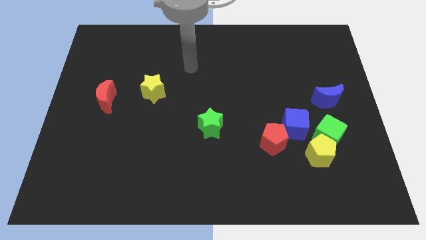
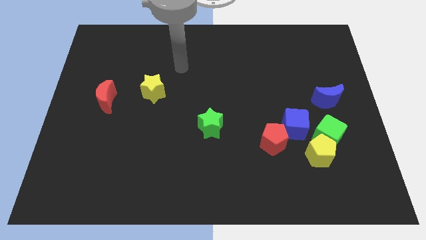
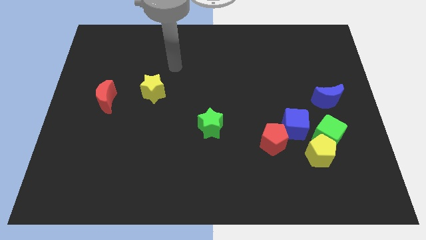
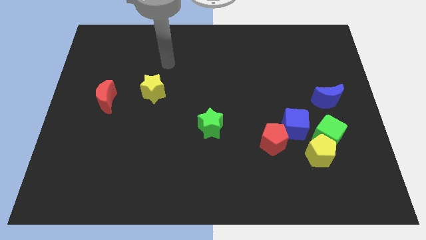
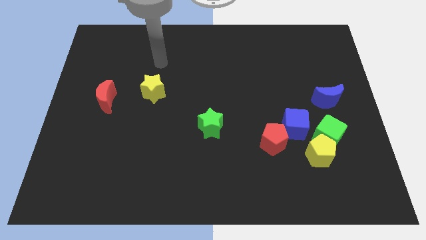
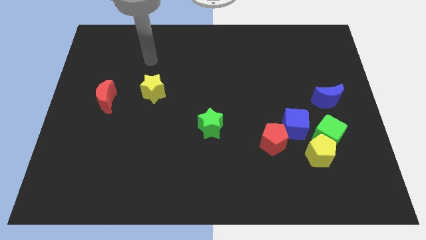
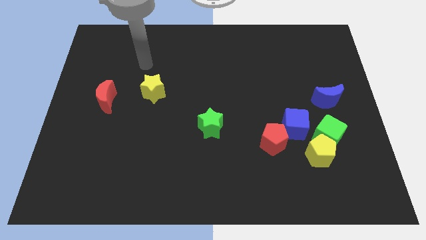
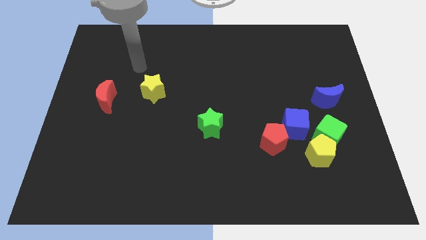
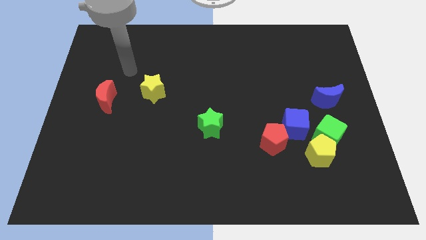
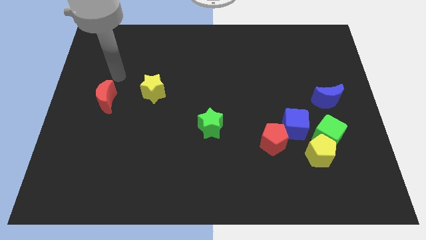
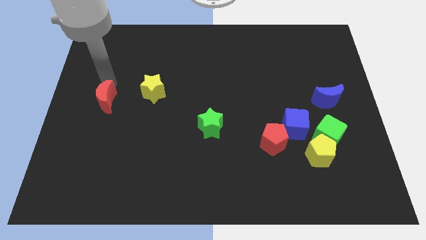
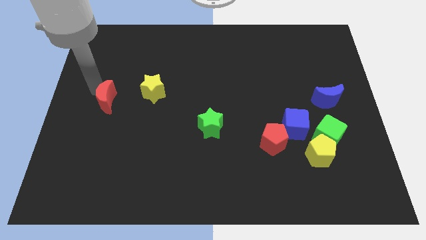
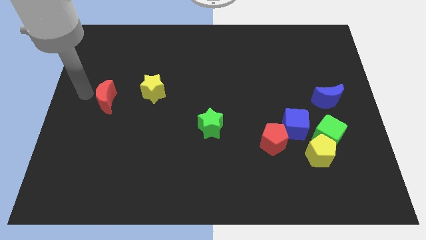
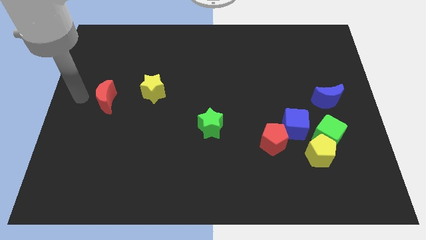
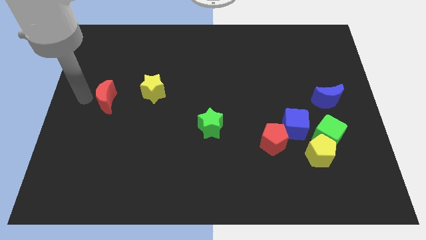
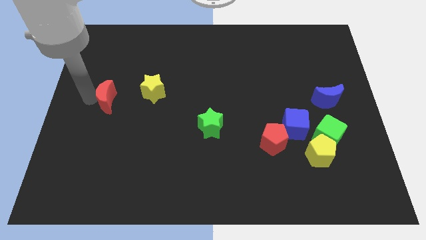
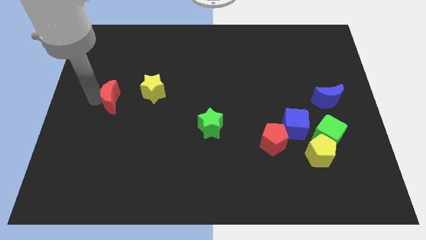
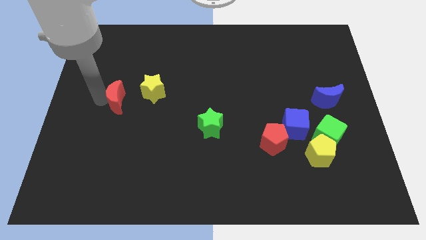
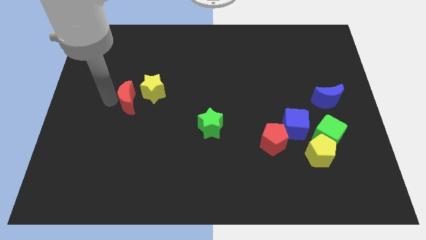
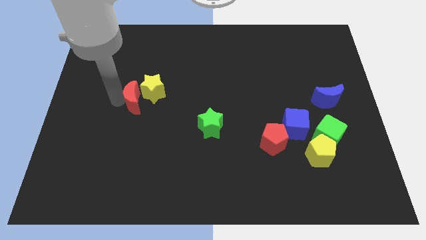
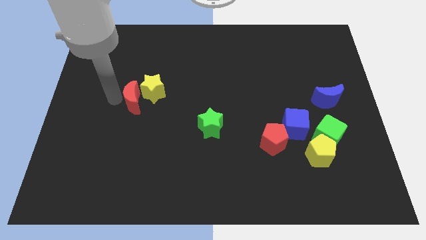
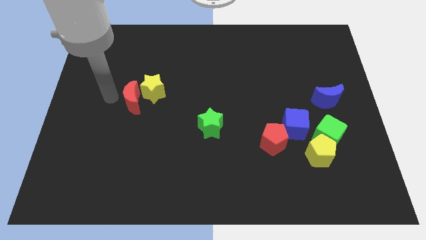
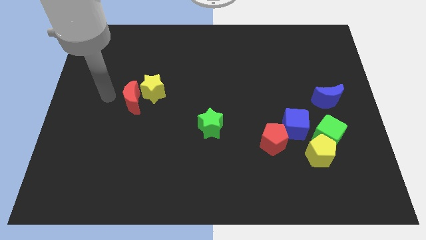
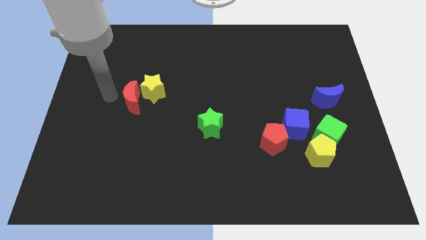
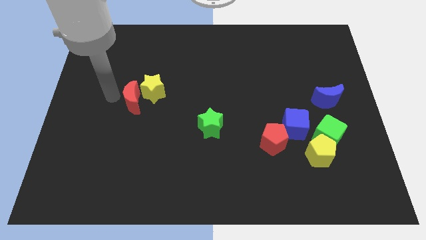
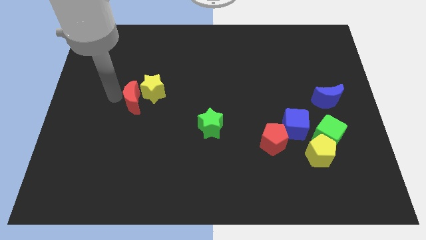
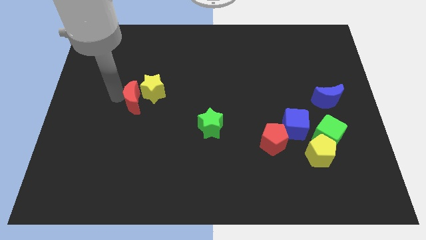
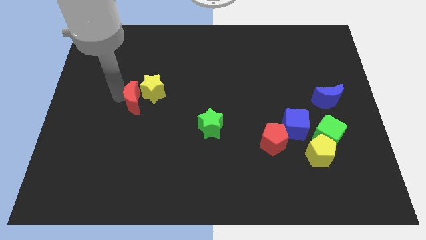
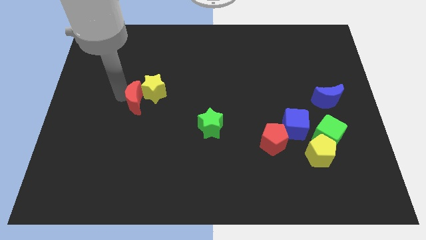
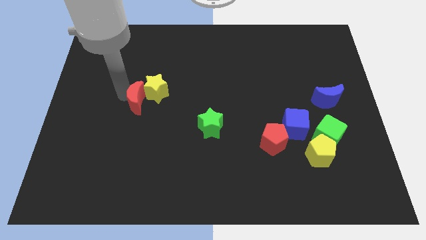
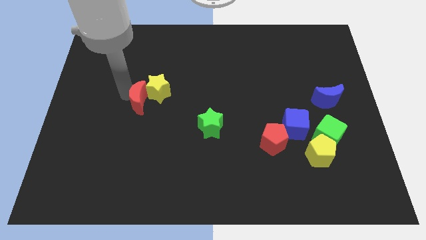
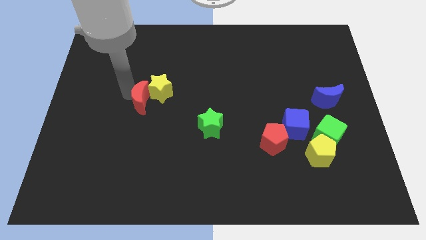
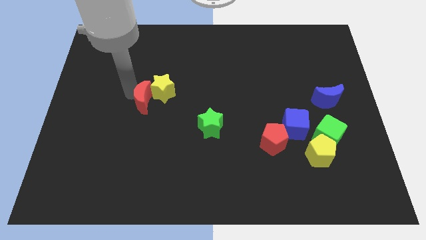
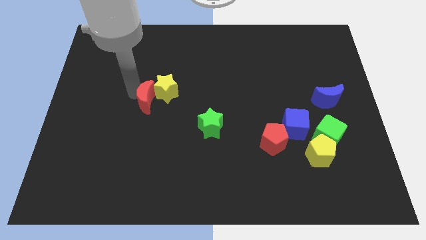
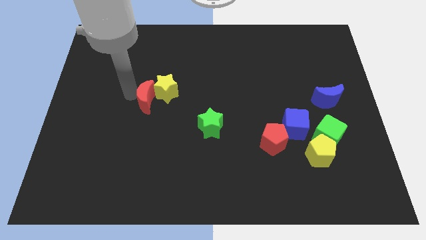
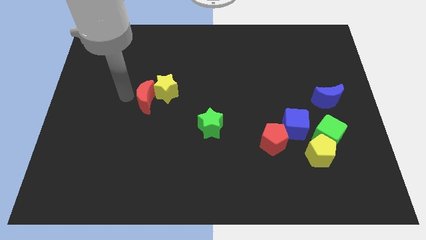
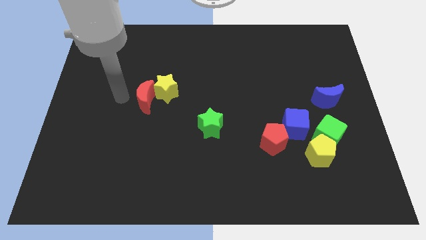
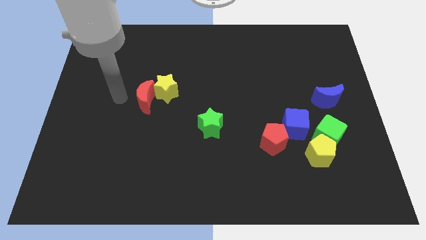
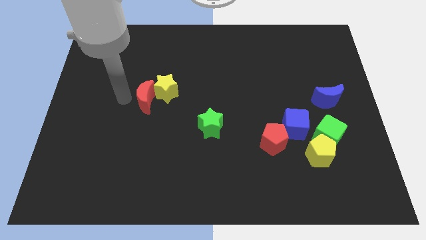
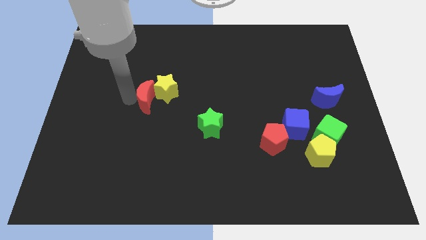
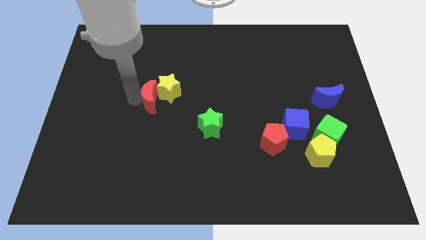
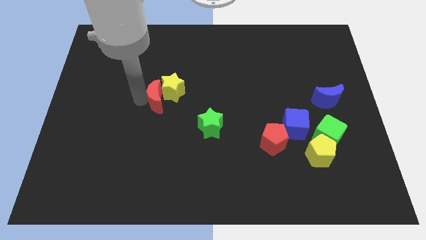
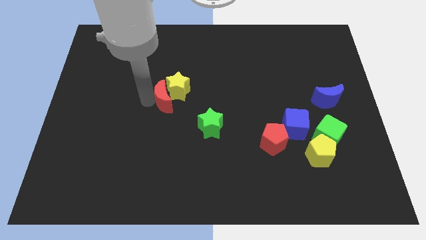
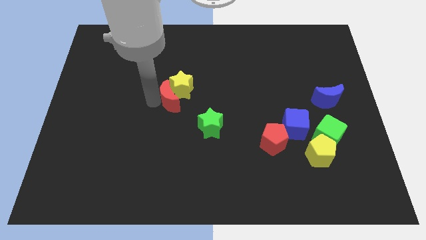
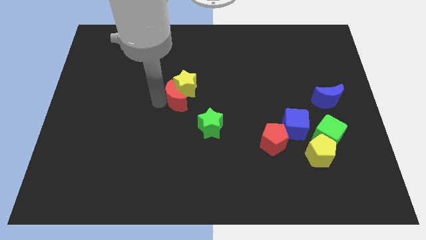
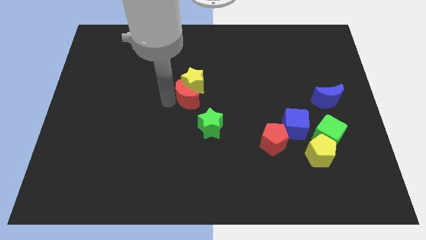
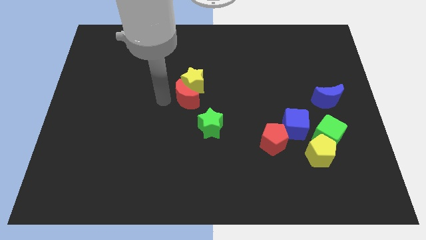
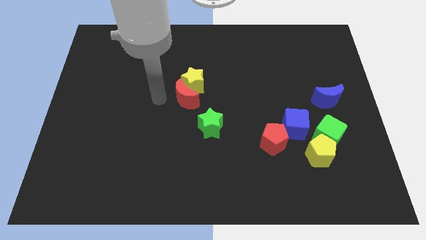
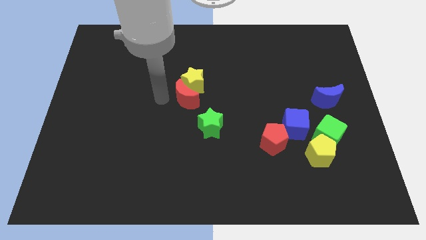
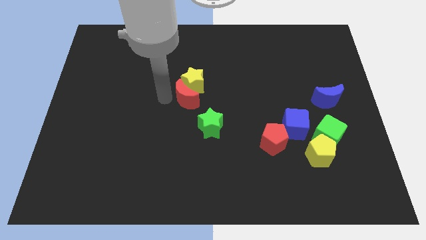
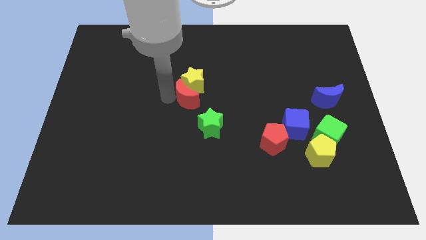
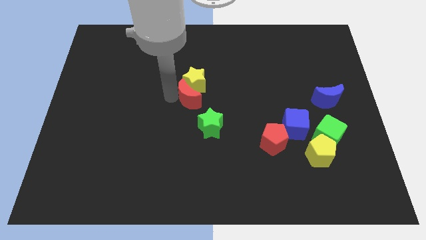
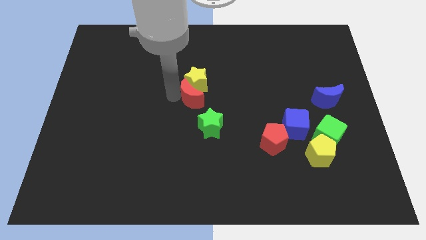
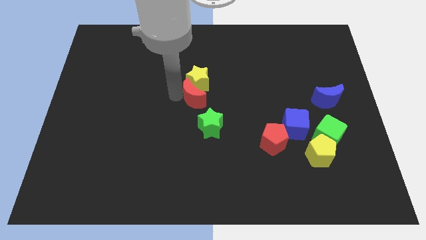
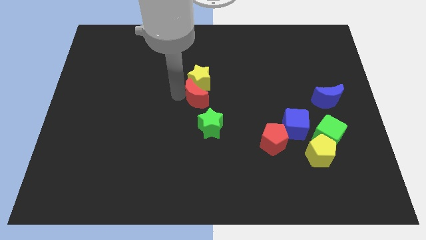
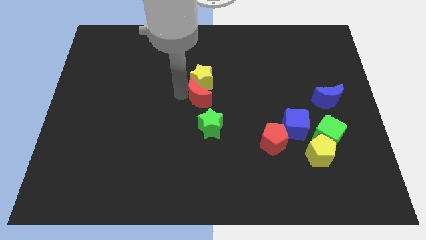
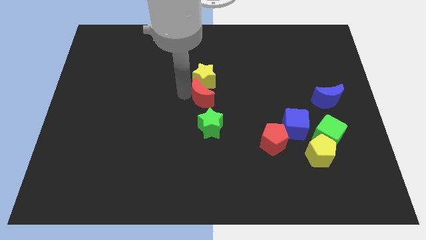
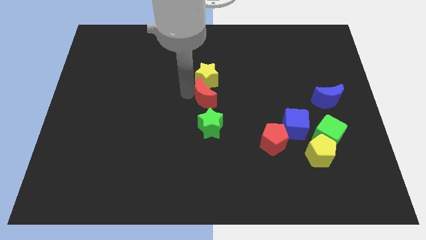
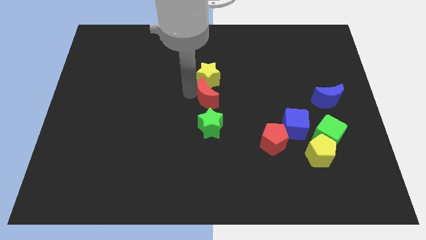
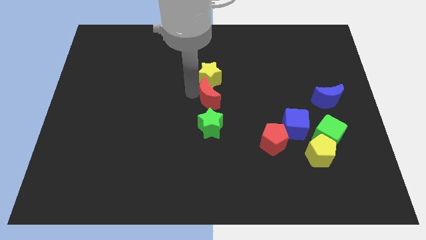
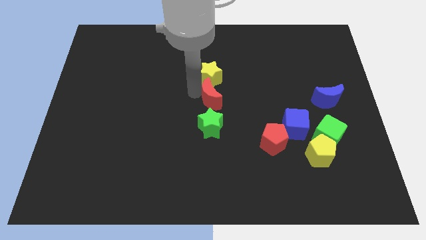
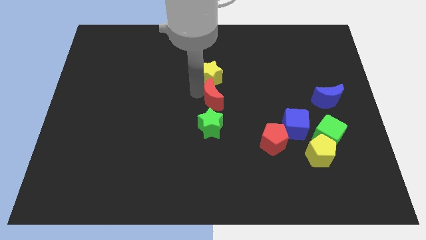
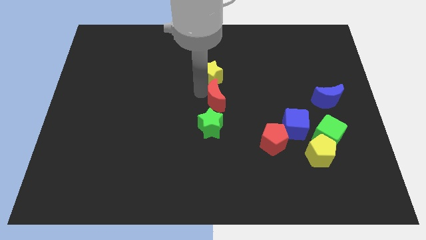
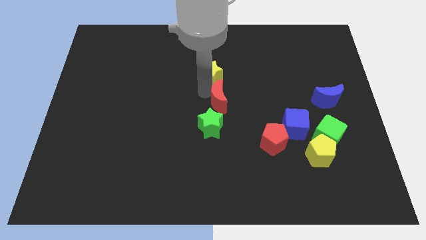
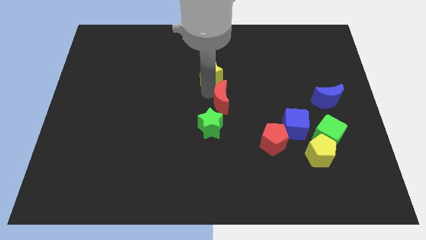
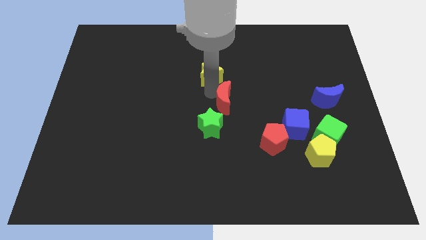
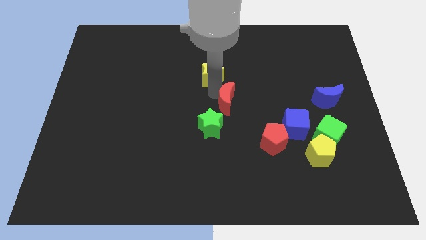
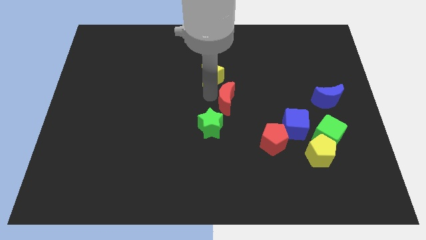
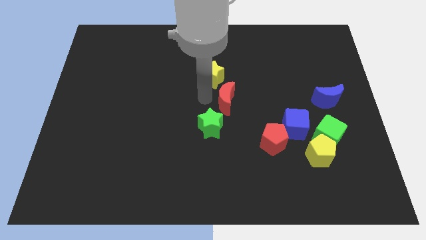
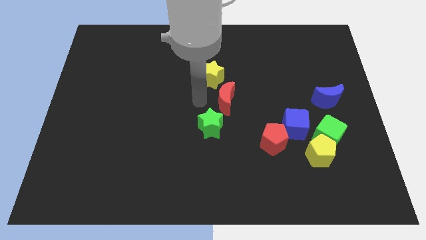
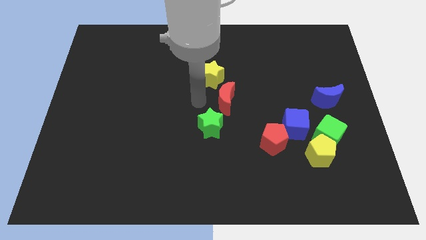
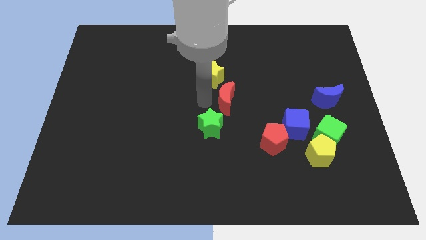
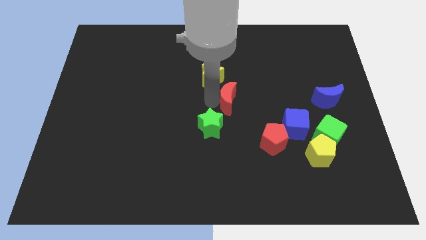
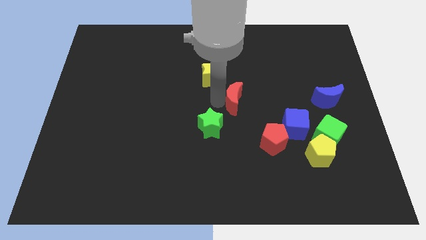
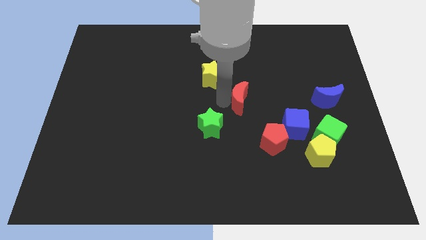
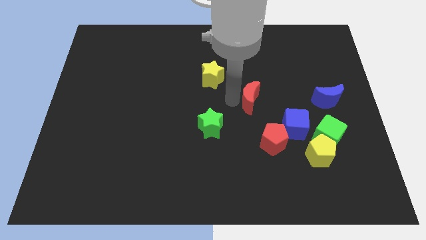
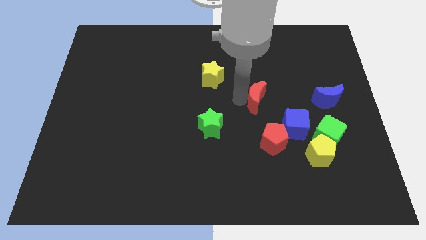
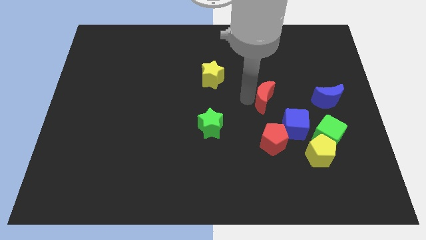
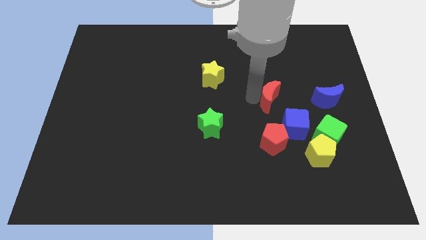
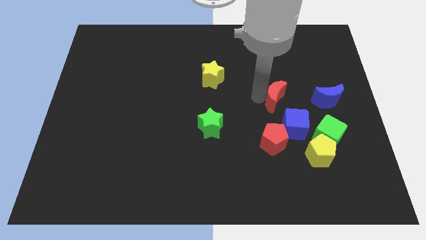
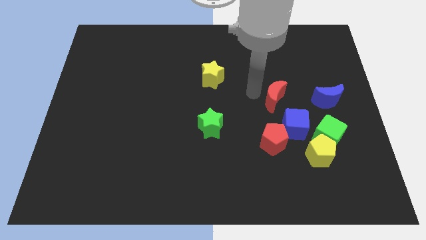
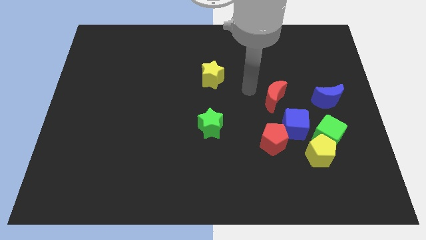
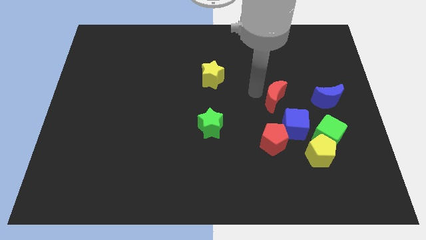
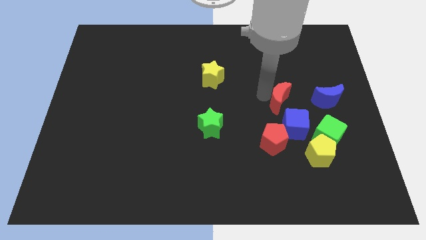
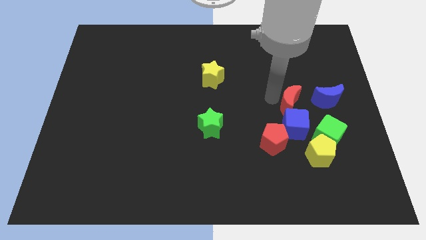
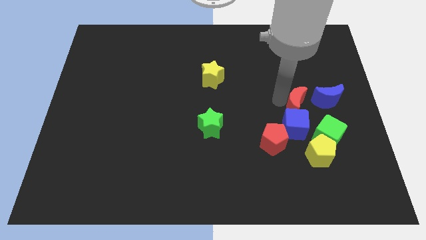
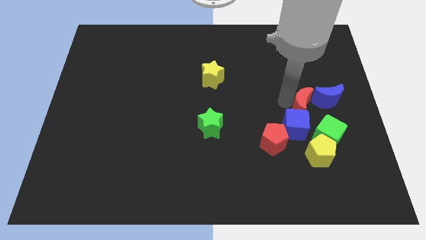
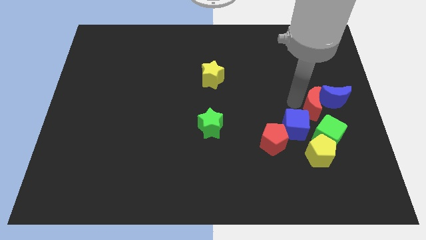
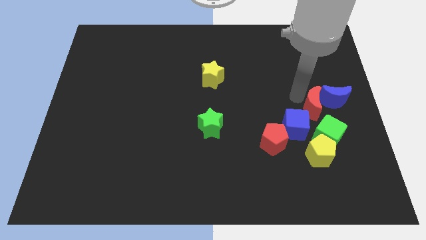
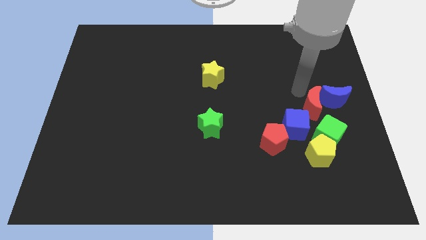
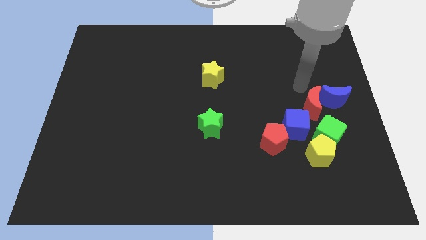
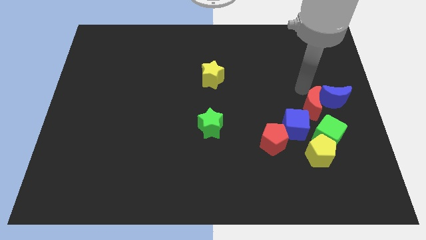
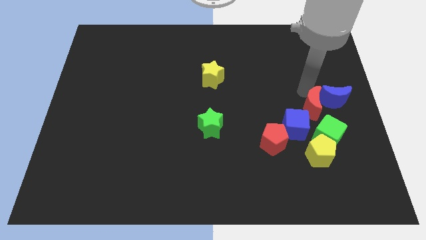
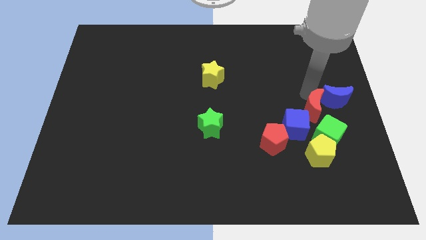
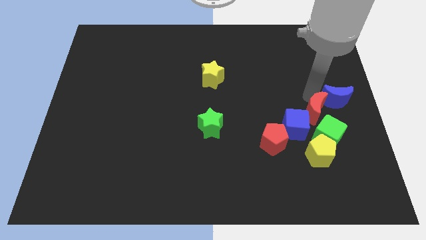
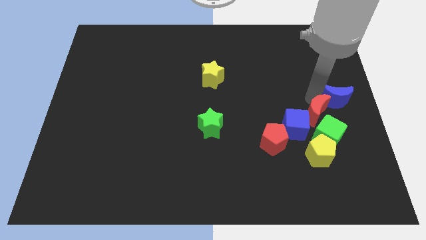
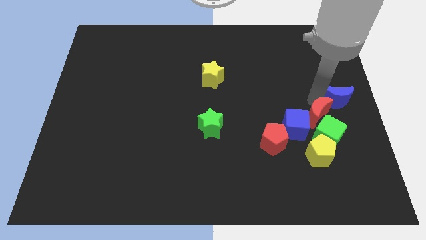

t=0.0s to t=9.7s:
put the red moon close to the green cube
